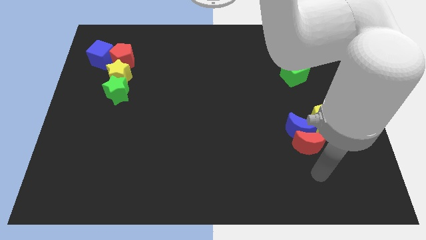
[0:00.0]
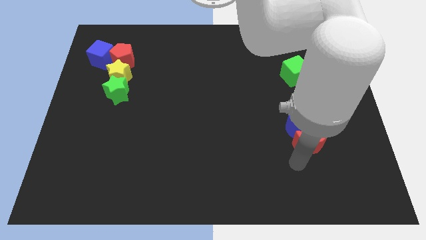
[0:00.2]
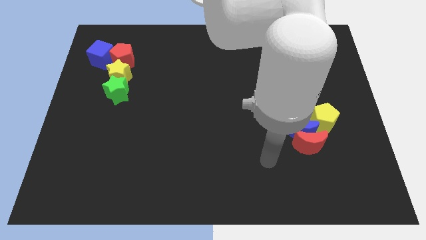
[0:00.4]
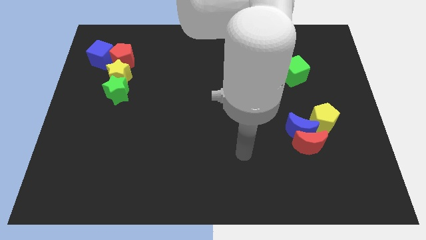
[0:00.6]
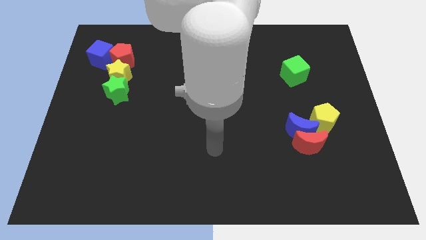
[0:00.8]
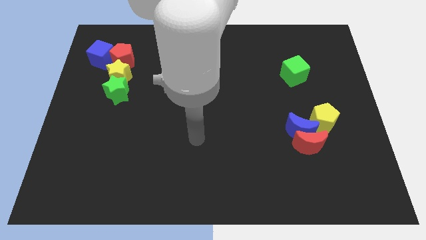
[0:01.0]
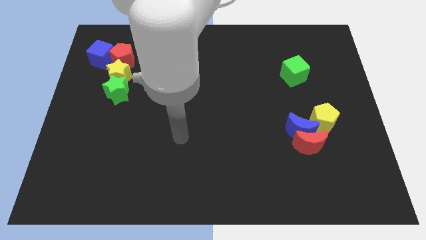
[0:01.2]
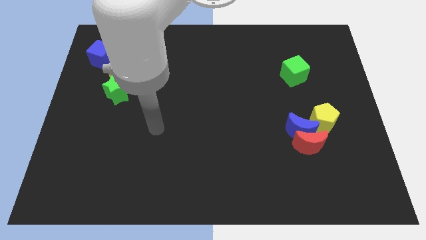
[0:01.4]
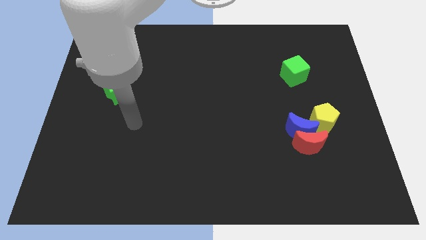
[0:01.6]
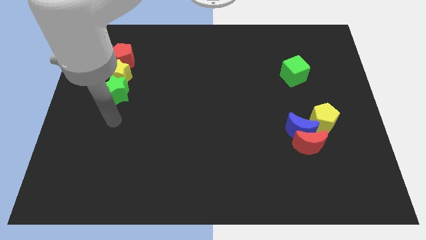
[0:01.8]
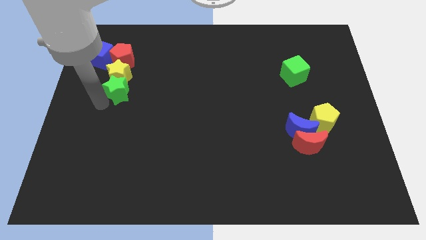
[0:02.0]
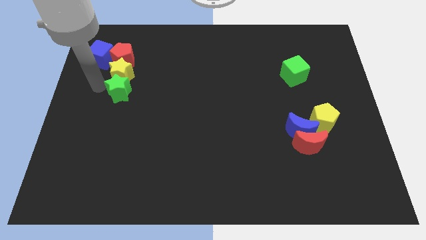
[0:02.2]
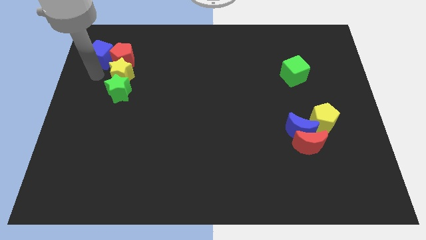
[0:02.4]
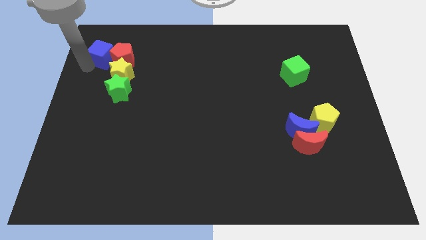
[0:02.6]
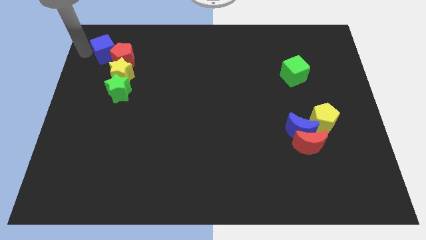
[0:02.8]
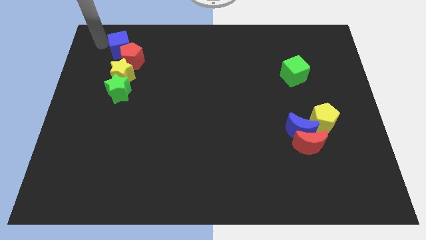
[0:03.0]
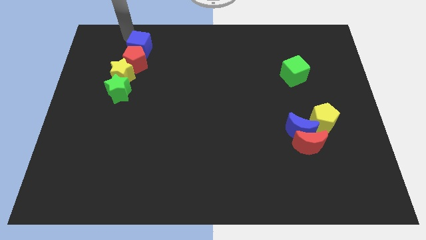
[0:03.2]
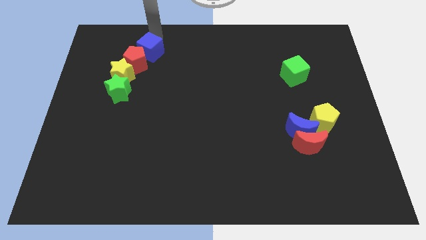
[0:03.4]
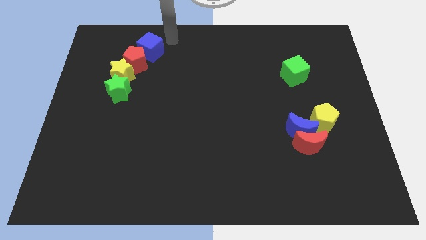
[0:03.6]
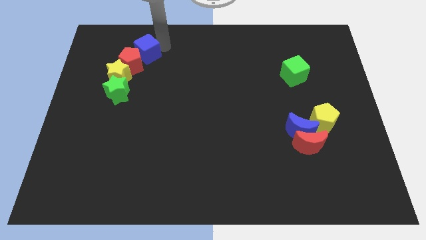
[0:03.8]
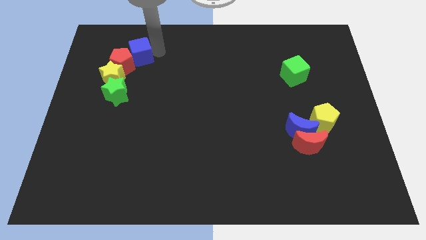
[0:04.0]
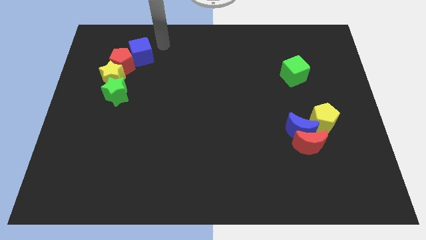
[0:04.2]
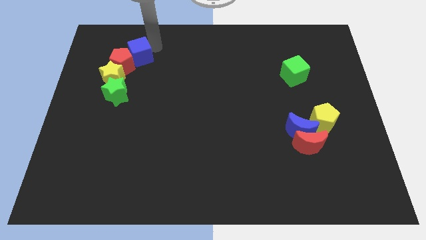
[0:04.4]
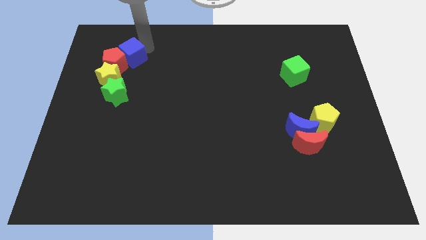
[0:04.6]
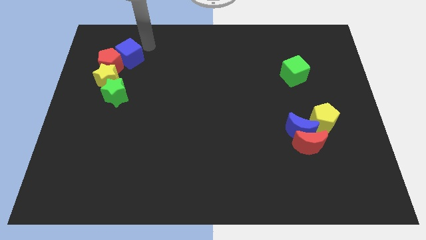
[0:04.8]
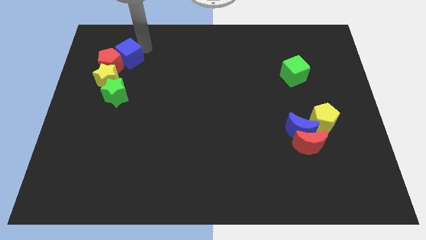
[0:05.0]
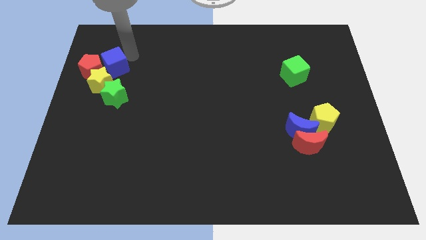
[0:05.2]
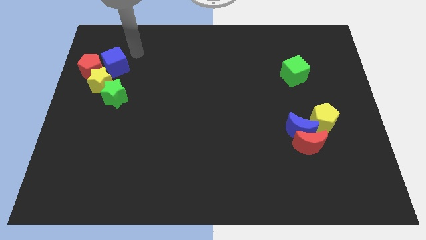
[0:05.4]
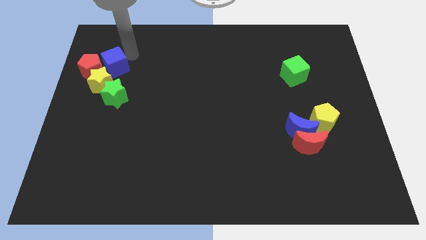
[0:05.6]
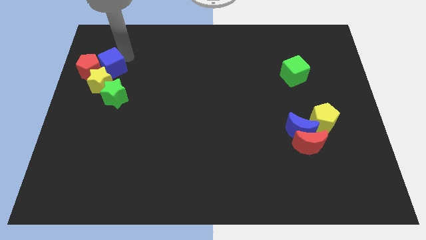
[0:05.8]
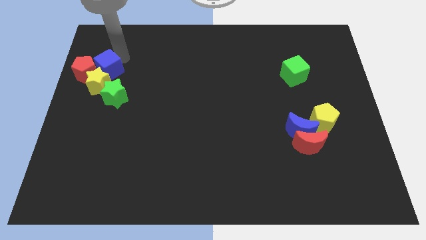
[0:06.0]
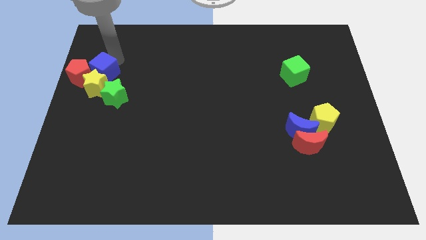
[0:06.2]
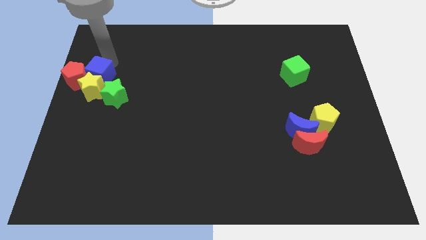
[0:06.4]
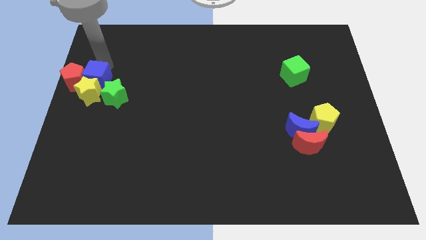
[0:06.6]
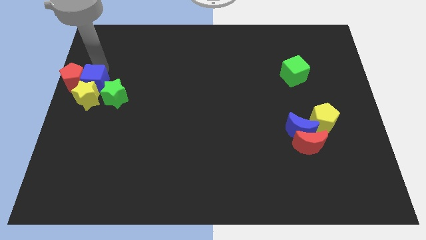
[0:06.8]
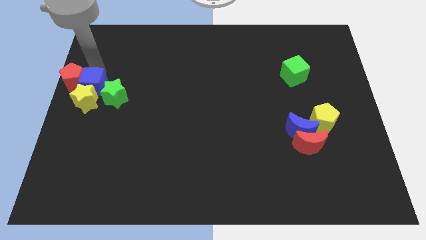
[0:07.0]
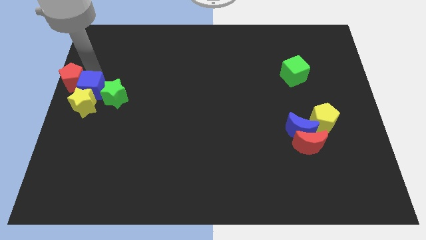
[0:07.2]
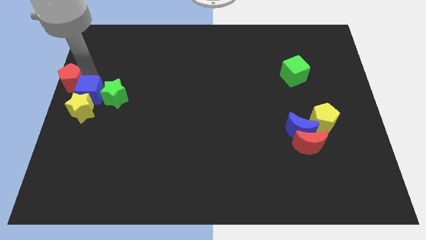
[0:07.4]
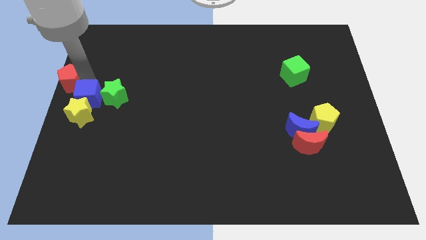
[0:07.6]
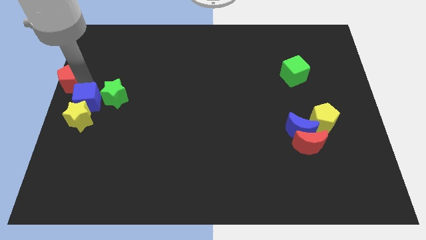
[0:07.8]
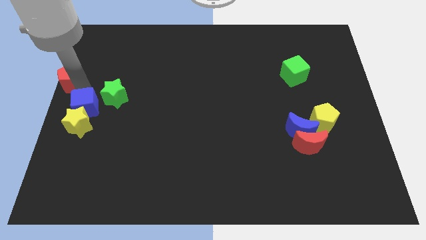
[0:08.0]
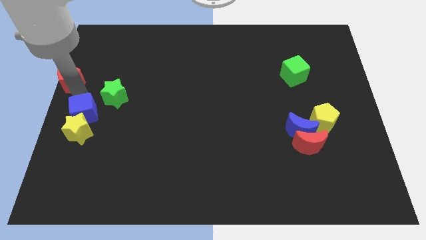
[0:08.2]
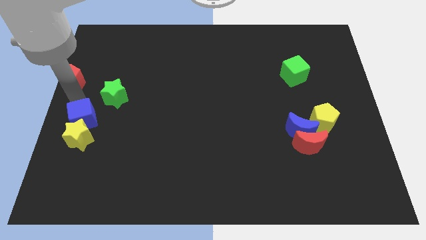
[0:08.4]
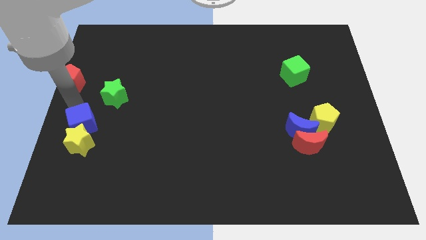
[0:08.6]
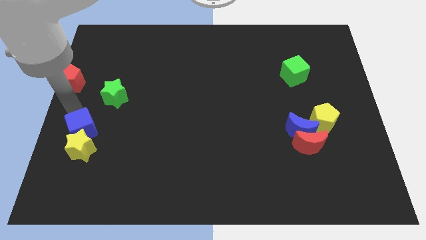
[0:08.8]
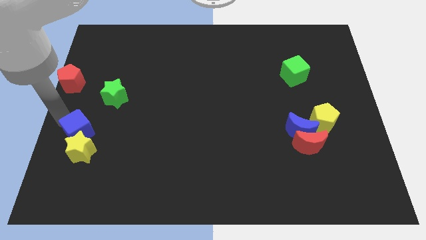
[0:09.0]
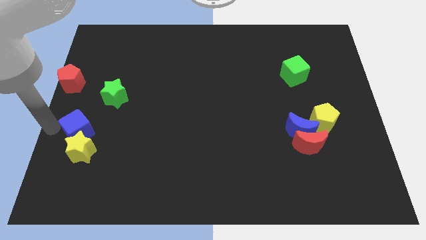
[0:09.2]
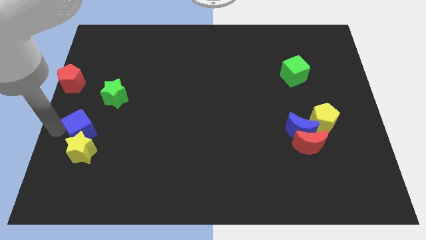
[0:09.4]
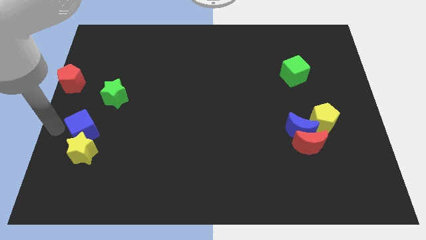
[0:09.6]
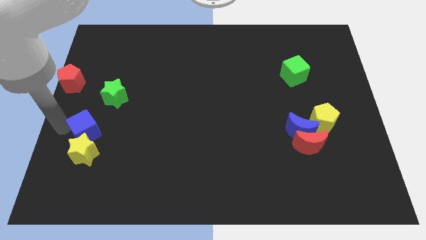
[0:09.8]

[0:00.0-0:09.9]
move the blue cube to the bottom side of the green star

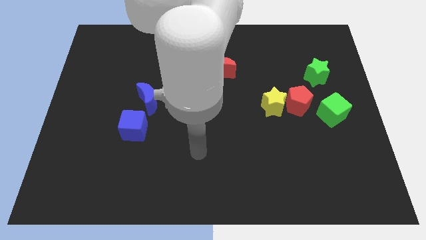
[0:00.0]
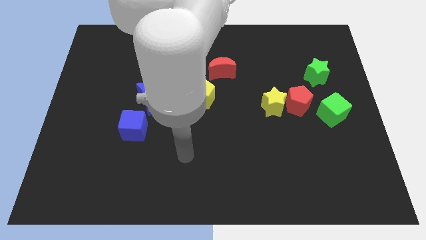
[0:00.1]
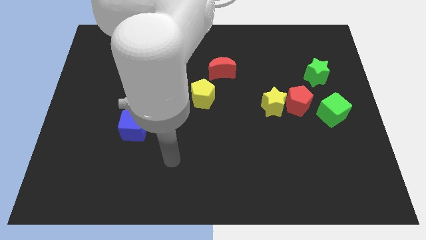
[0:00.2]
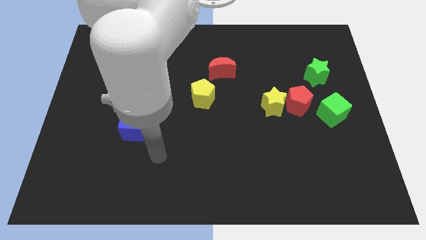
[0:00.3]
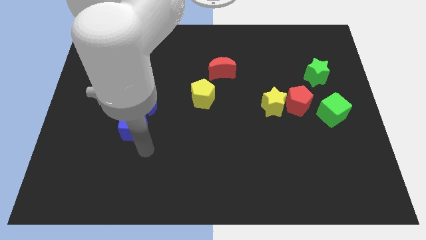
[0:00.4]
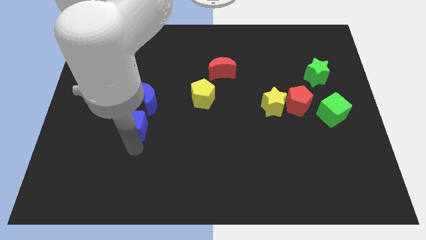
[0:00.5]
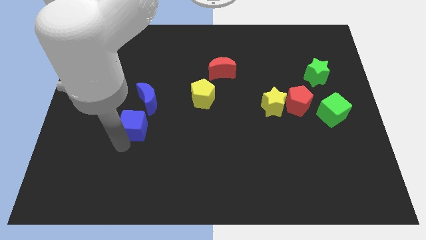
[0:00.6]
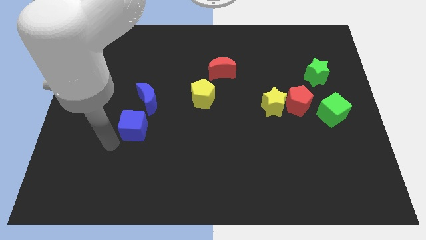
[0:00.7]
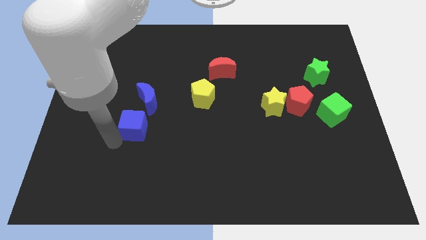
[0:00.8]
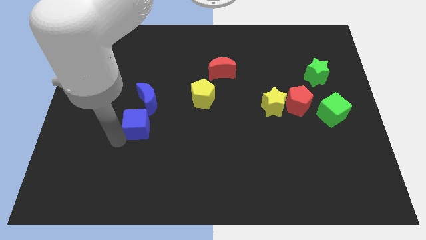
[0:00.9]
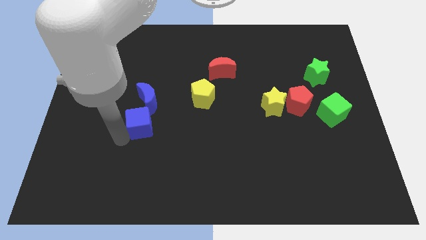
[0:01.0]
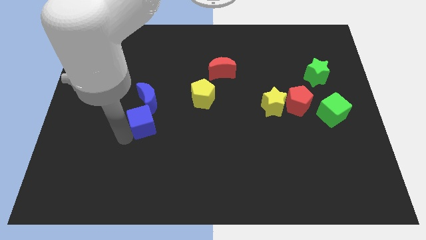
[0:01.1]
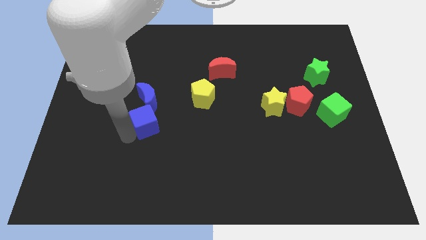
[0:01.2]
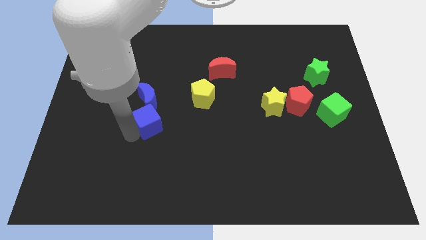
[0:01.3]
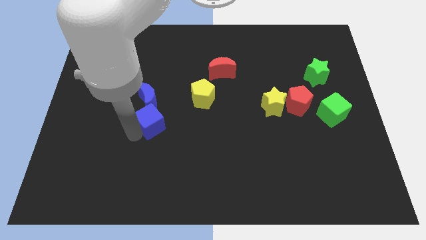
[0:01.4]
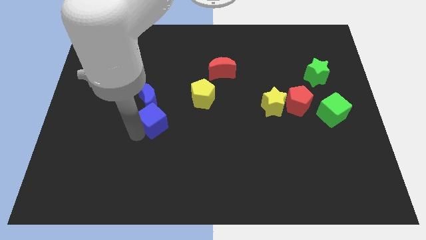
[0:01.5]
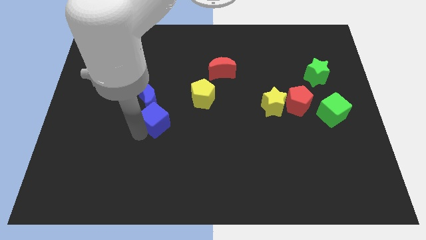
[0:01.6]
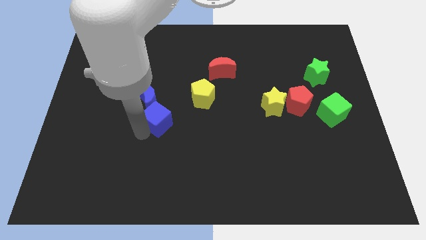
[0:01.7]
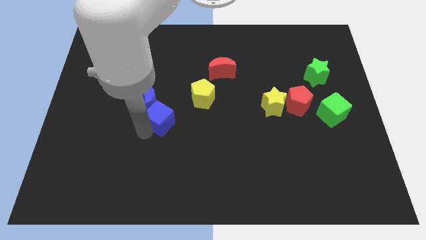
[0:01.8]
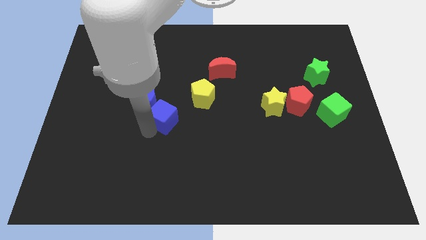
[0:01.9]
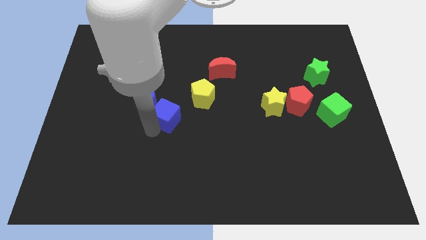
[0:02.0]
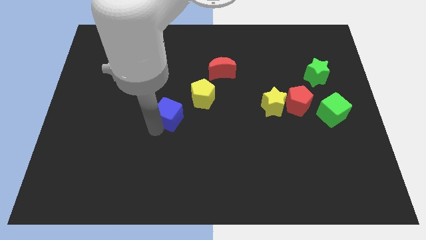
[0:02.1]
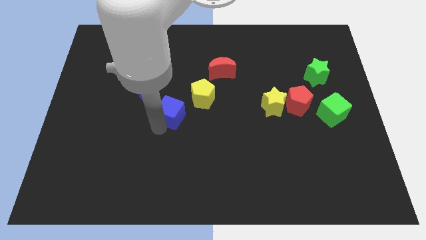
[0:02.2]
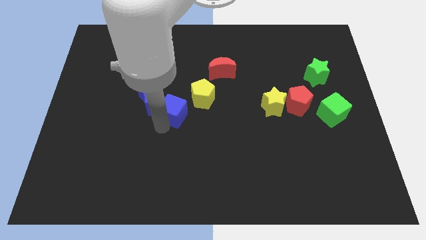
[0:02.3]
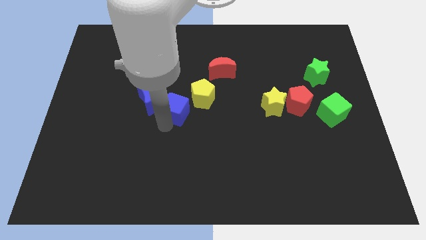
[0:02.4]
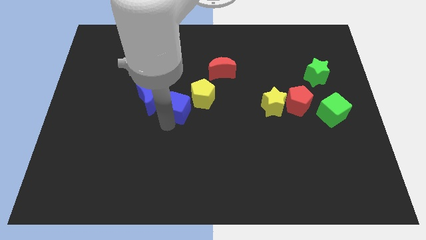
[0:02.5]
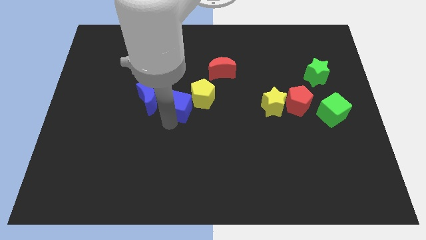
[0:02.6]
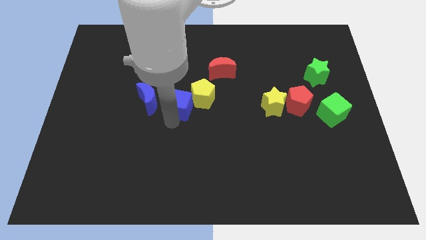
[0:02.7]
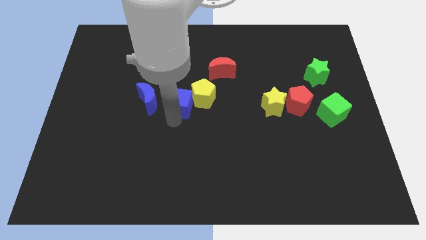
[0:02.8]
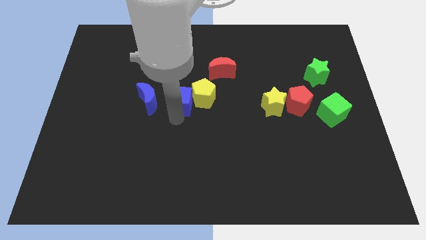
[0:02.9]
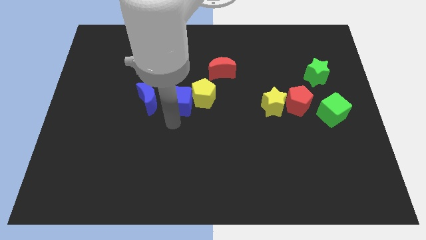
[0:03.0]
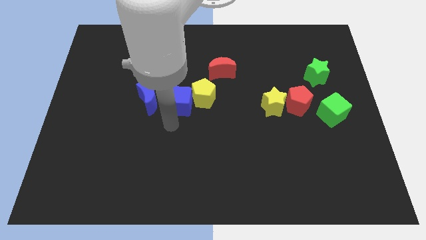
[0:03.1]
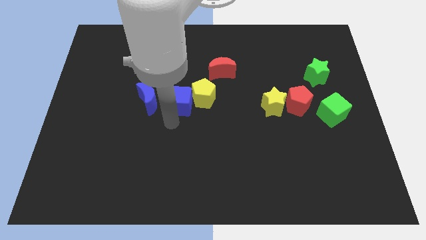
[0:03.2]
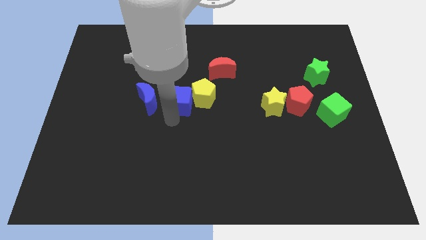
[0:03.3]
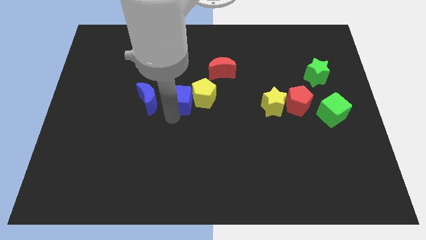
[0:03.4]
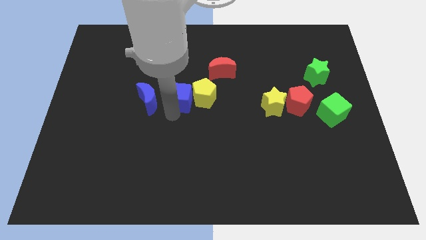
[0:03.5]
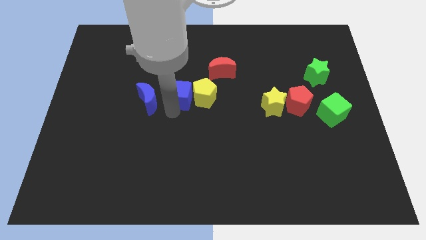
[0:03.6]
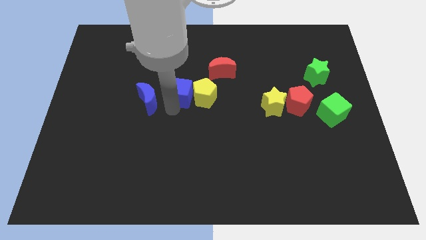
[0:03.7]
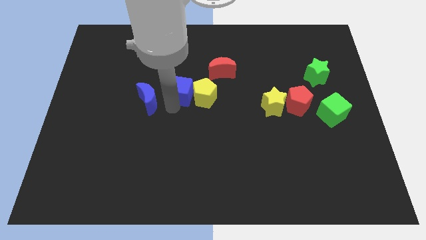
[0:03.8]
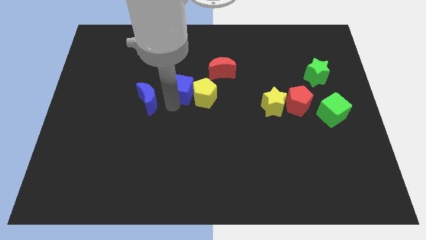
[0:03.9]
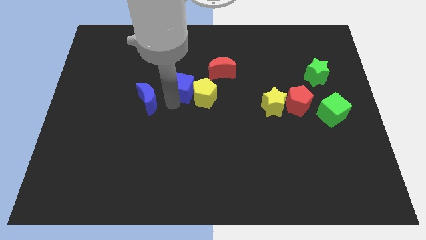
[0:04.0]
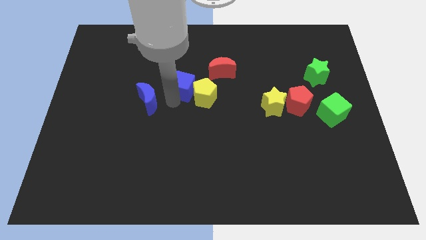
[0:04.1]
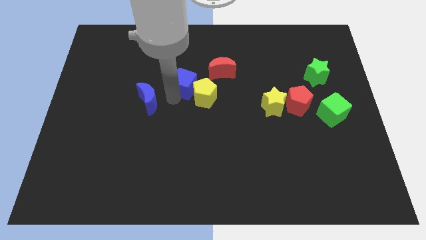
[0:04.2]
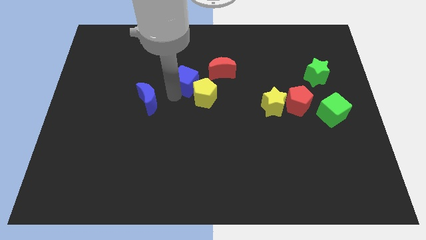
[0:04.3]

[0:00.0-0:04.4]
push the blue cube to the top of the yellow pentagon
